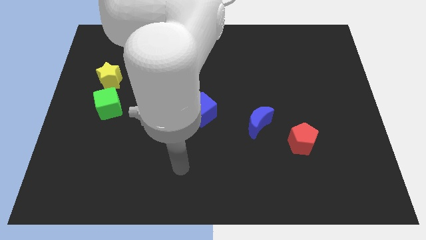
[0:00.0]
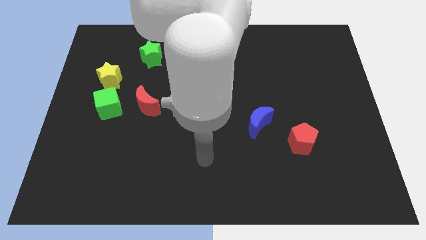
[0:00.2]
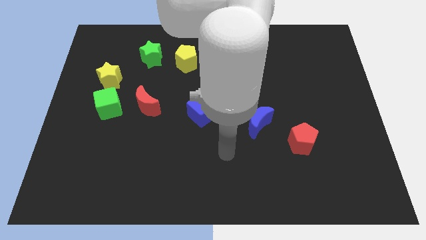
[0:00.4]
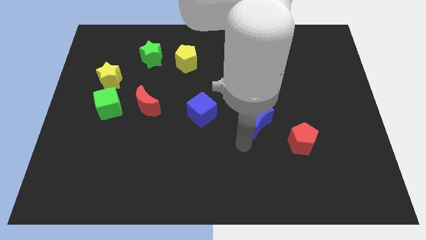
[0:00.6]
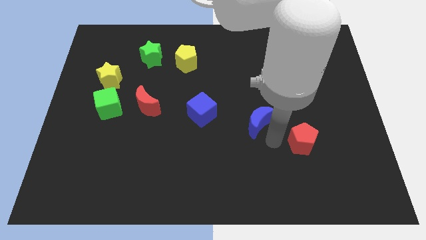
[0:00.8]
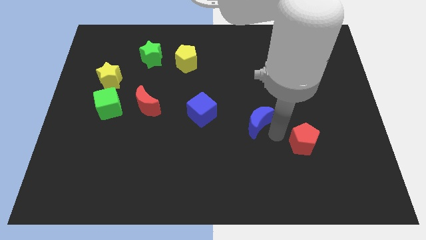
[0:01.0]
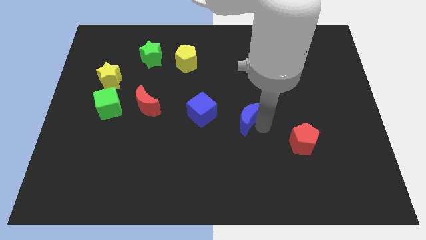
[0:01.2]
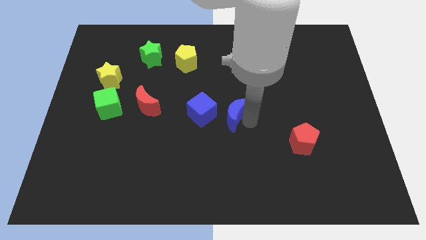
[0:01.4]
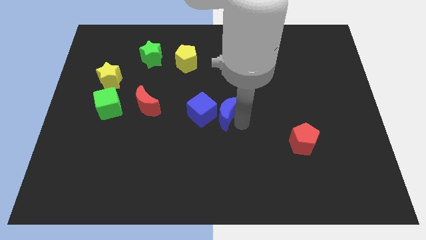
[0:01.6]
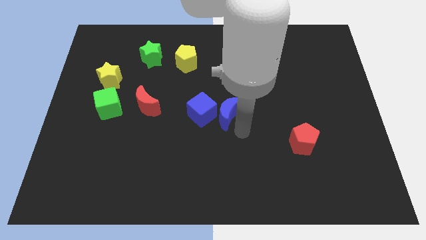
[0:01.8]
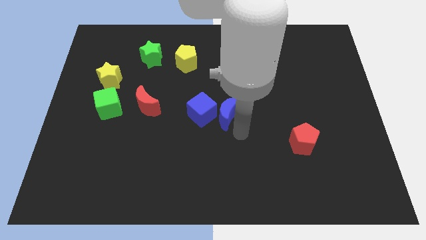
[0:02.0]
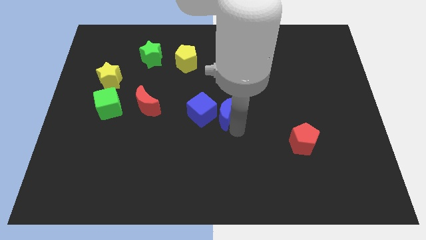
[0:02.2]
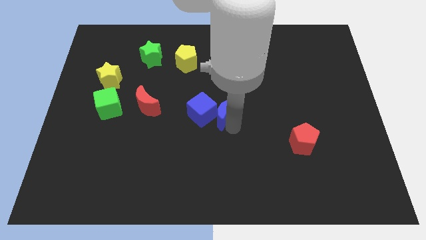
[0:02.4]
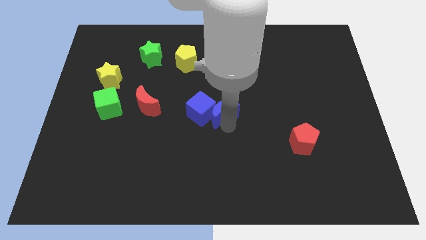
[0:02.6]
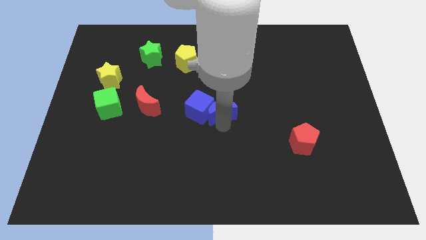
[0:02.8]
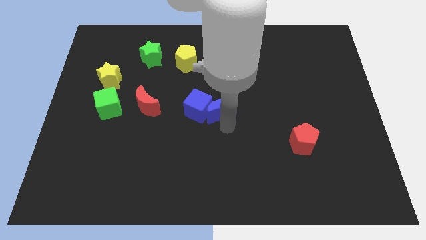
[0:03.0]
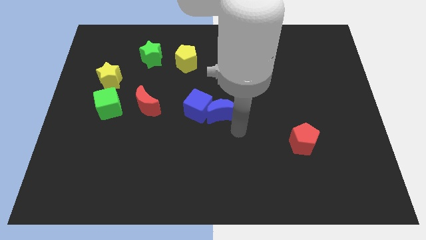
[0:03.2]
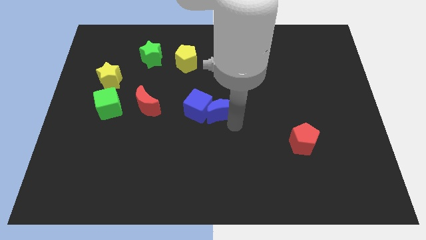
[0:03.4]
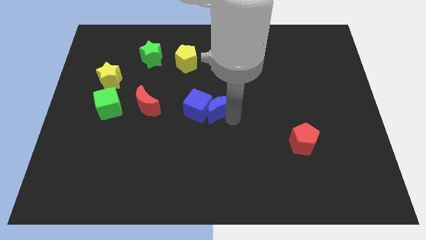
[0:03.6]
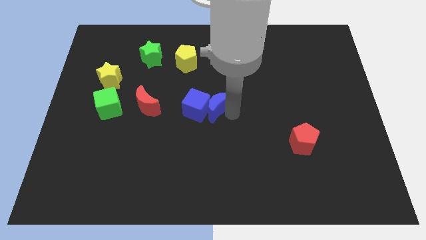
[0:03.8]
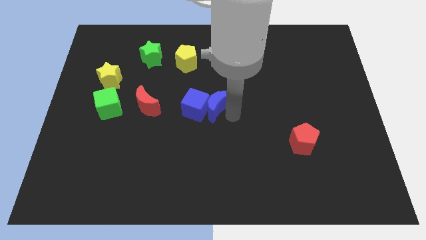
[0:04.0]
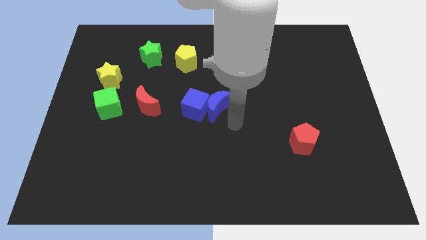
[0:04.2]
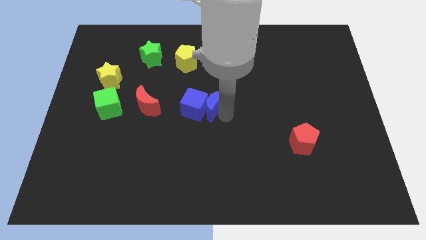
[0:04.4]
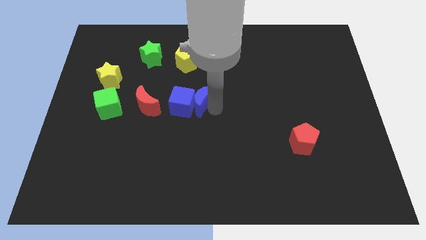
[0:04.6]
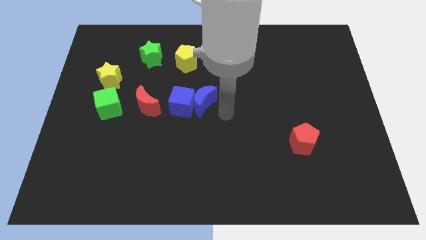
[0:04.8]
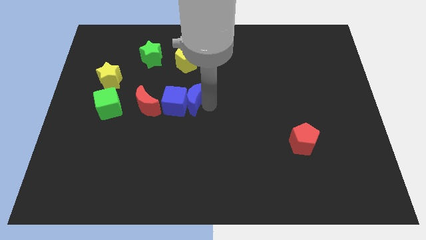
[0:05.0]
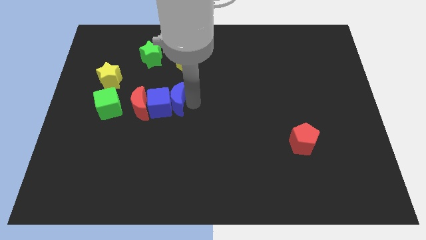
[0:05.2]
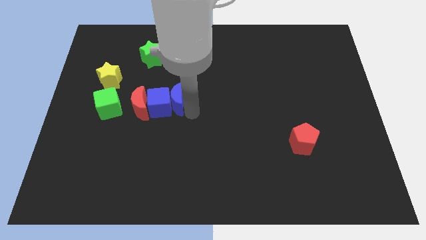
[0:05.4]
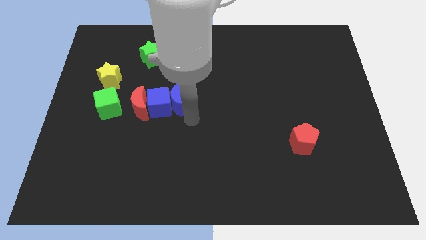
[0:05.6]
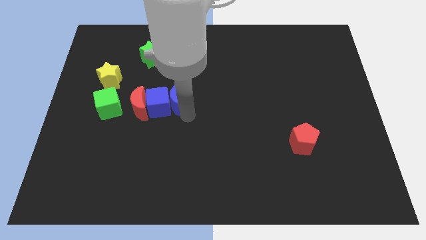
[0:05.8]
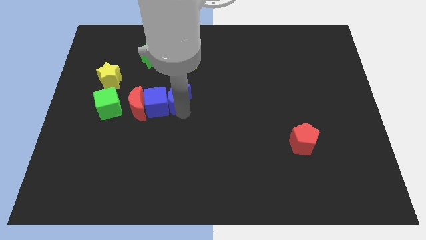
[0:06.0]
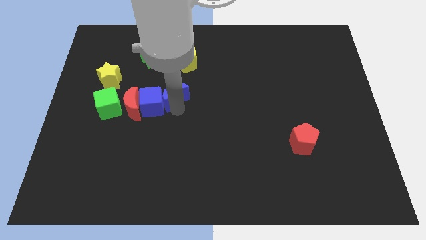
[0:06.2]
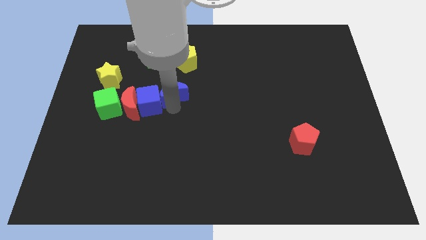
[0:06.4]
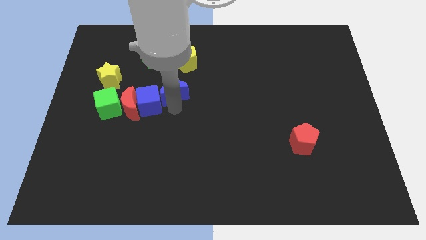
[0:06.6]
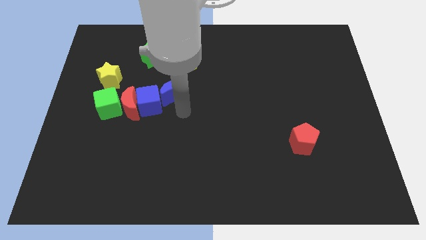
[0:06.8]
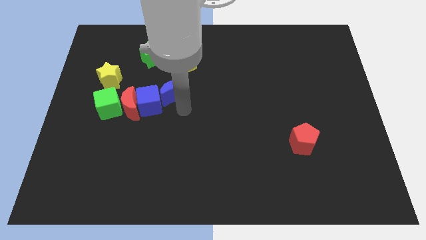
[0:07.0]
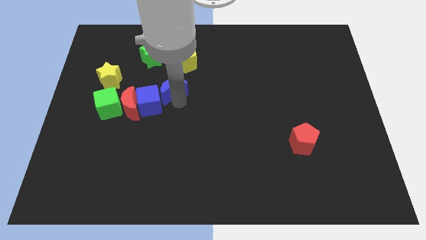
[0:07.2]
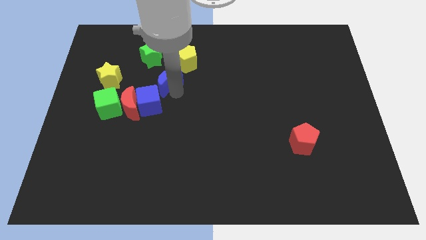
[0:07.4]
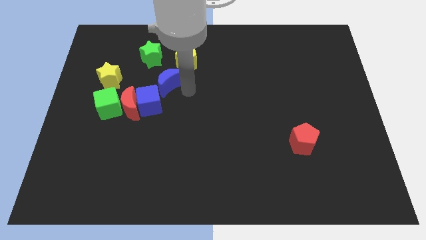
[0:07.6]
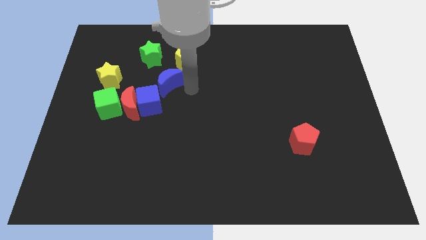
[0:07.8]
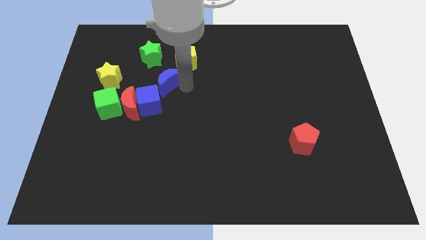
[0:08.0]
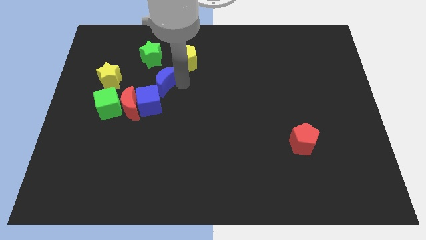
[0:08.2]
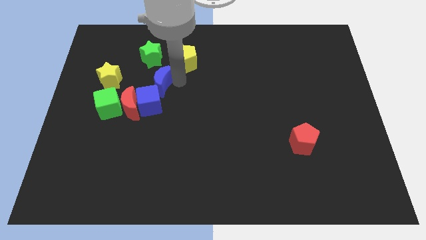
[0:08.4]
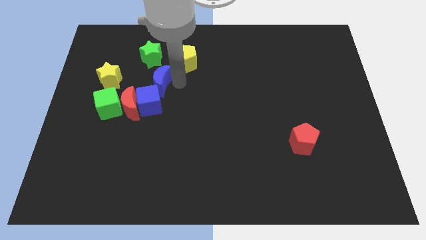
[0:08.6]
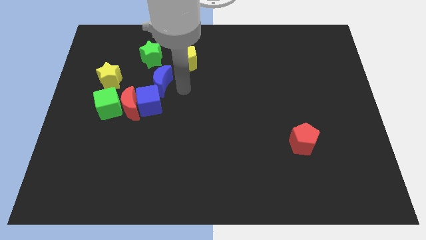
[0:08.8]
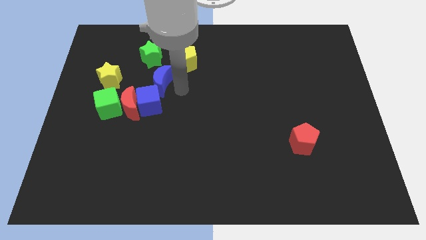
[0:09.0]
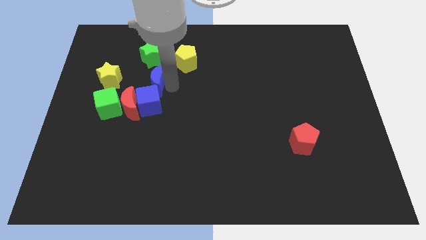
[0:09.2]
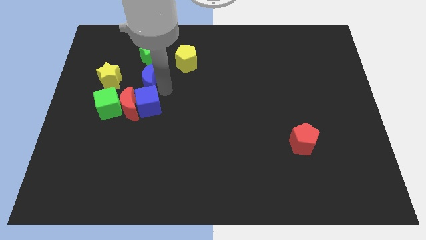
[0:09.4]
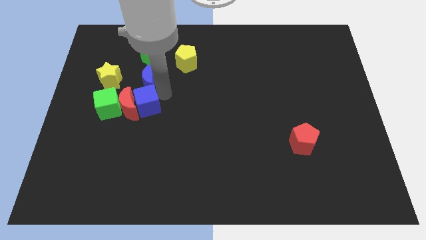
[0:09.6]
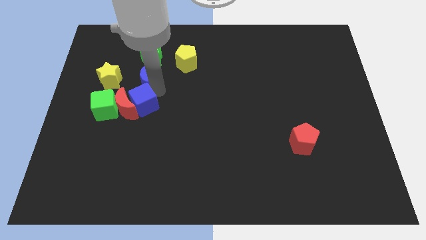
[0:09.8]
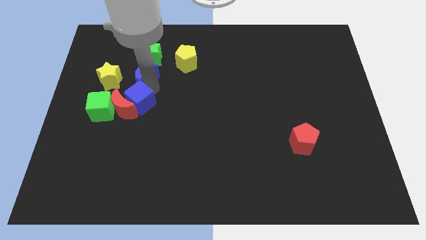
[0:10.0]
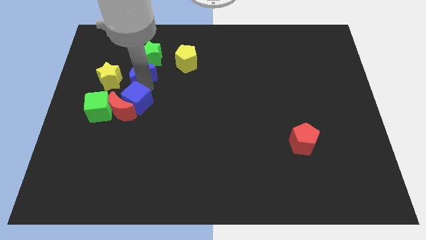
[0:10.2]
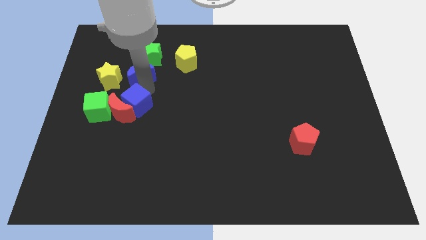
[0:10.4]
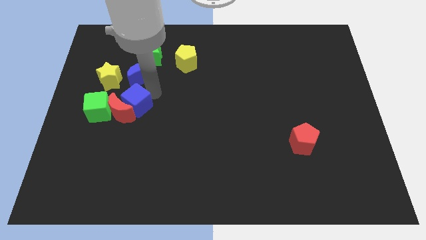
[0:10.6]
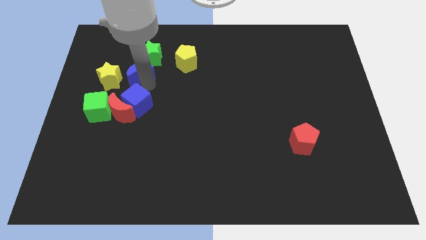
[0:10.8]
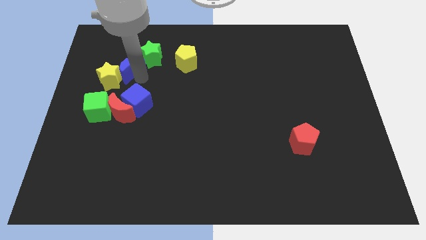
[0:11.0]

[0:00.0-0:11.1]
move the blue moon to the left of the green star

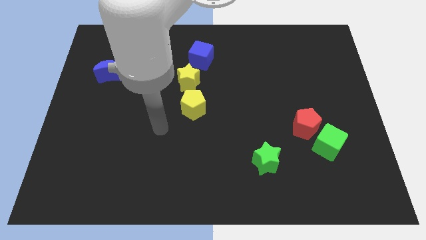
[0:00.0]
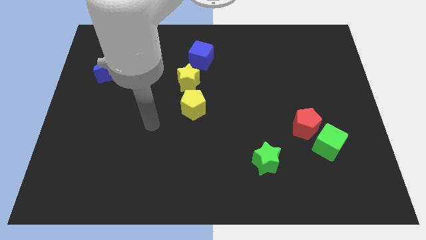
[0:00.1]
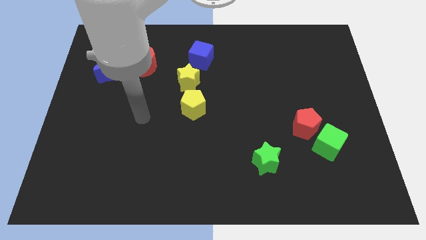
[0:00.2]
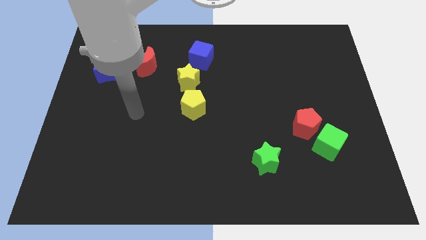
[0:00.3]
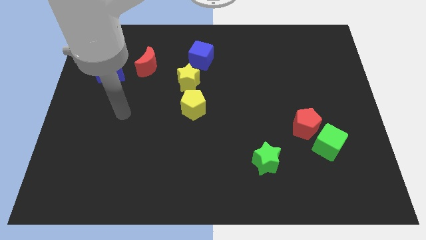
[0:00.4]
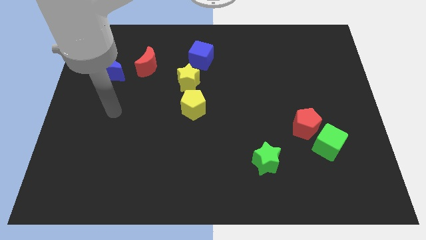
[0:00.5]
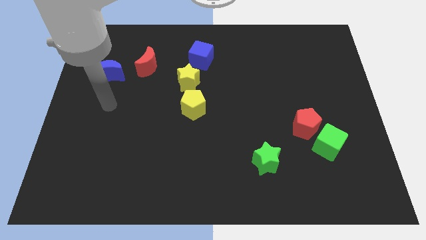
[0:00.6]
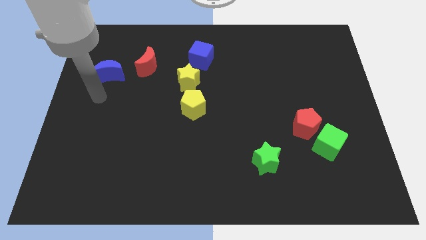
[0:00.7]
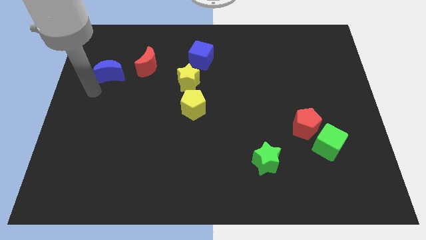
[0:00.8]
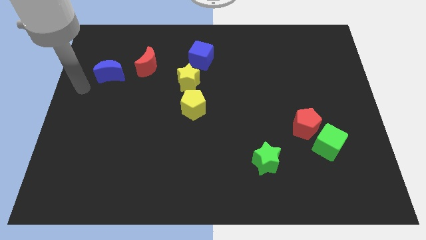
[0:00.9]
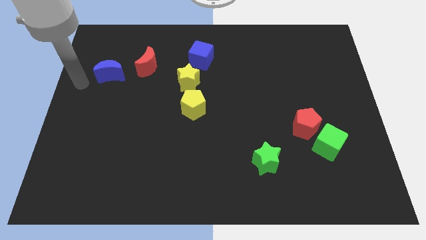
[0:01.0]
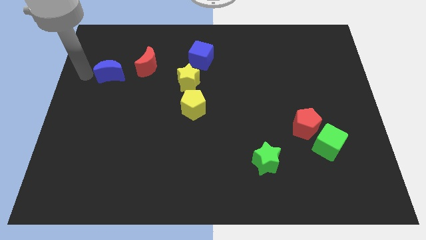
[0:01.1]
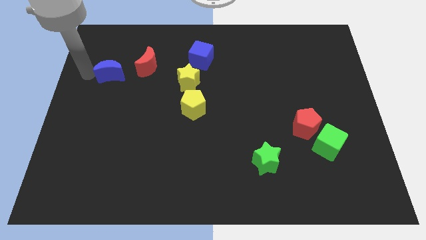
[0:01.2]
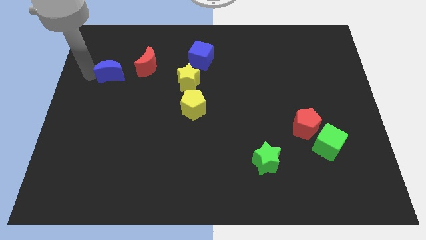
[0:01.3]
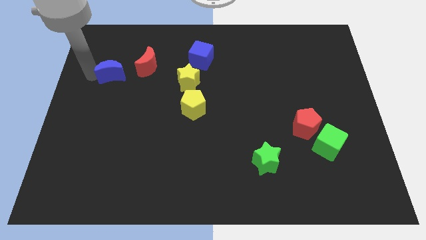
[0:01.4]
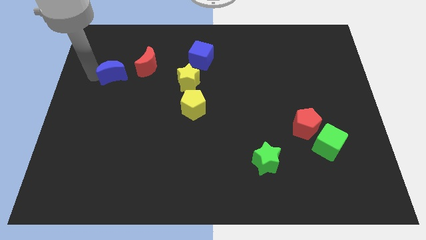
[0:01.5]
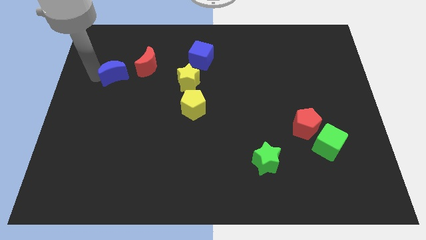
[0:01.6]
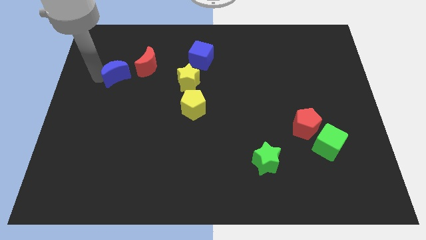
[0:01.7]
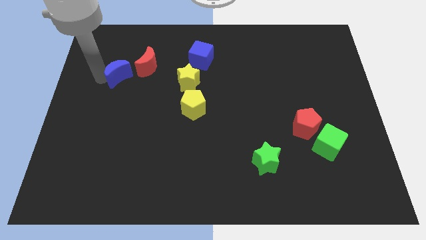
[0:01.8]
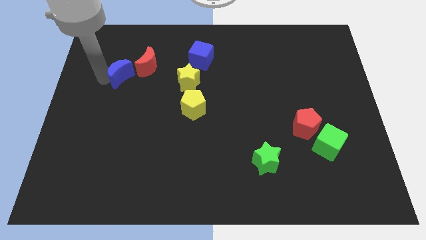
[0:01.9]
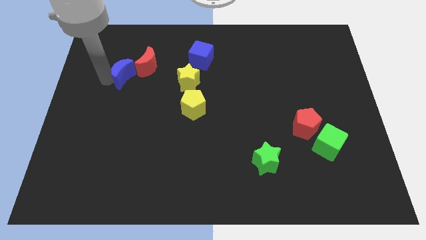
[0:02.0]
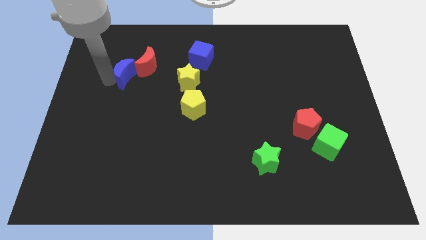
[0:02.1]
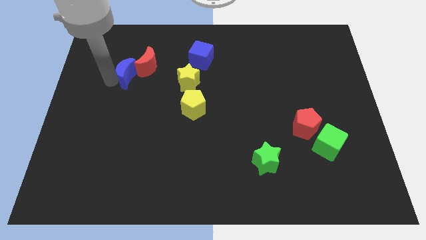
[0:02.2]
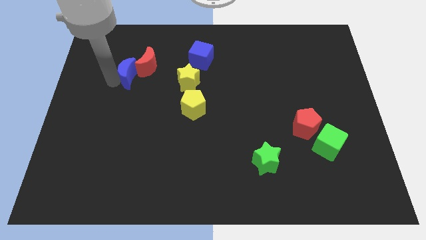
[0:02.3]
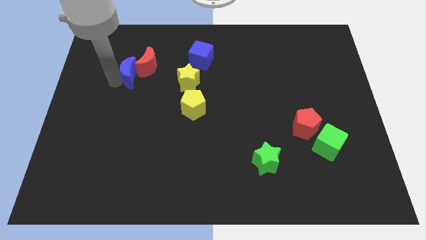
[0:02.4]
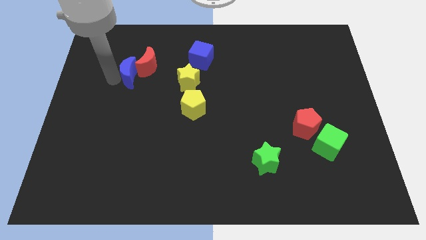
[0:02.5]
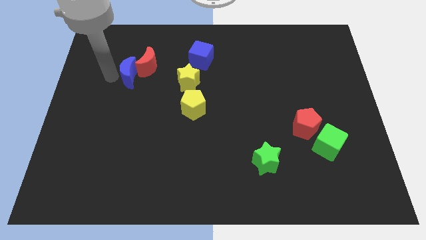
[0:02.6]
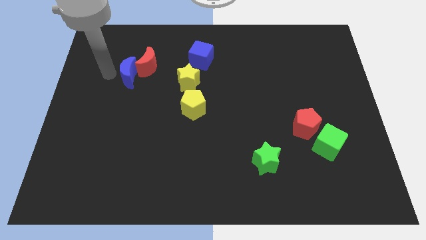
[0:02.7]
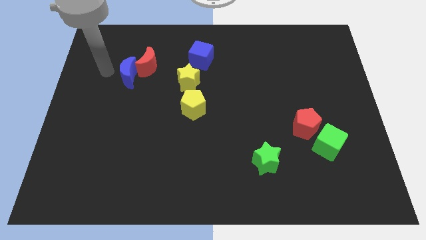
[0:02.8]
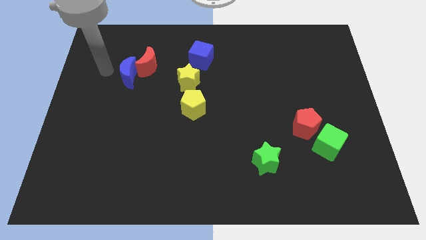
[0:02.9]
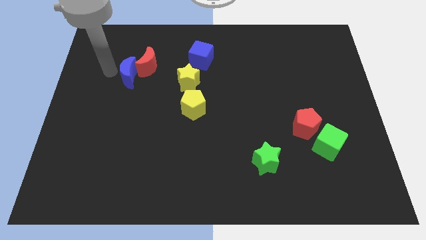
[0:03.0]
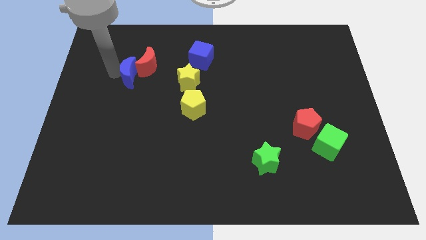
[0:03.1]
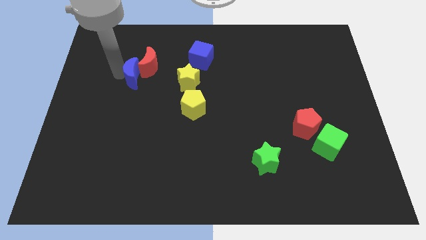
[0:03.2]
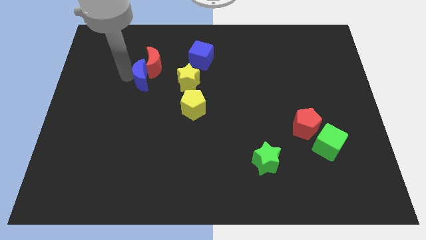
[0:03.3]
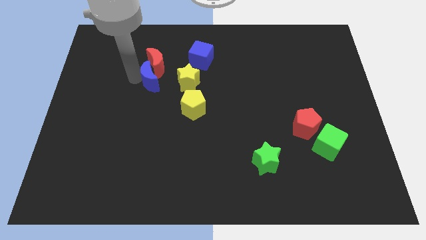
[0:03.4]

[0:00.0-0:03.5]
move the blue moon to the bottom right of the red moon
